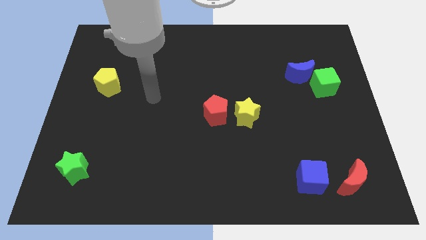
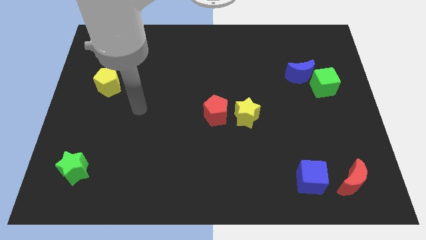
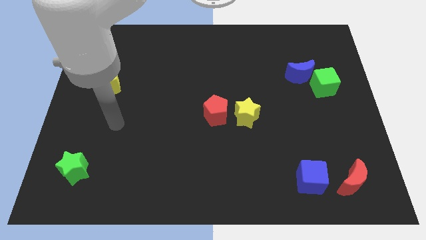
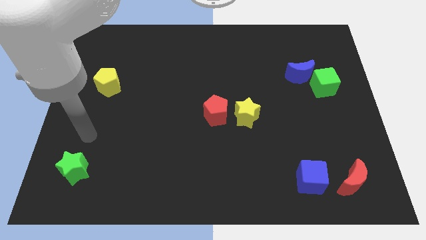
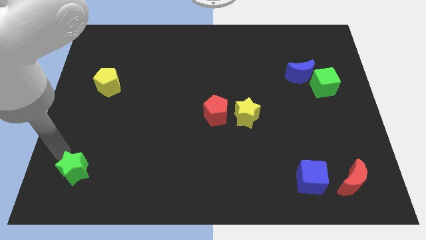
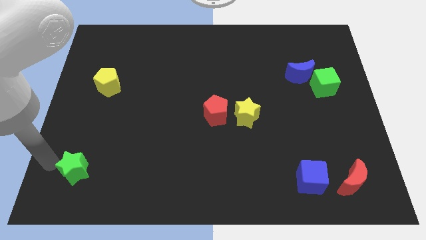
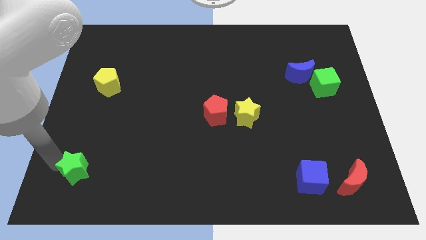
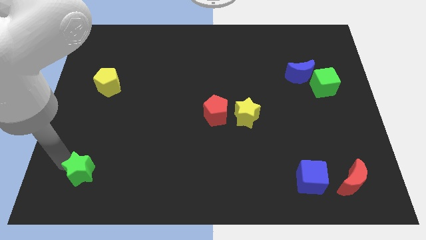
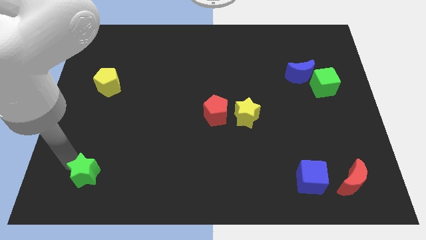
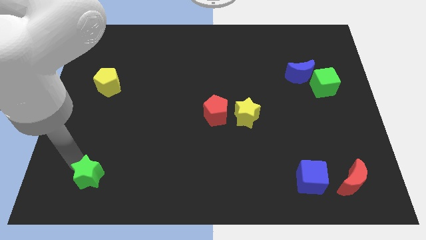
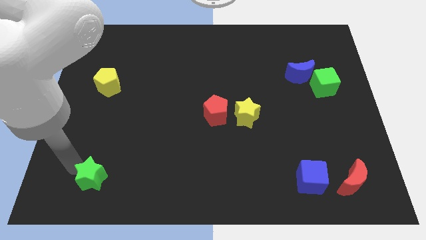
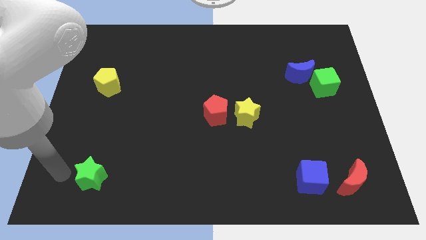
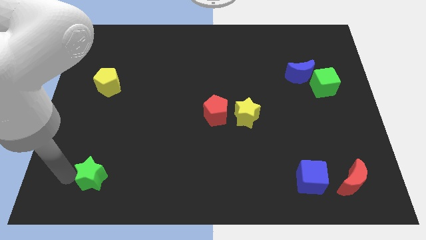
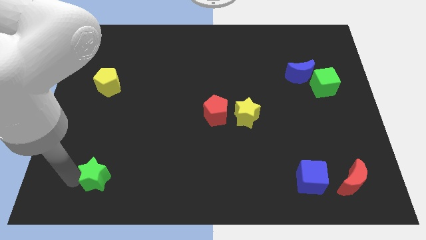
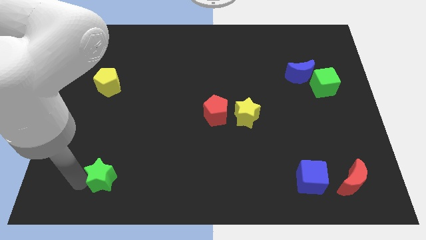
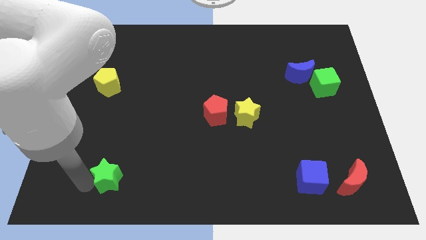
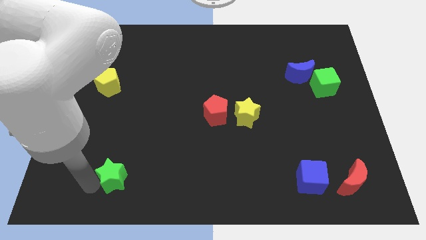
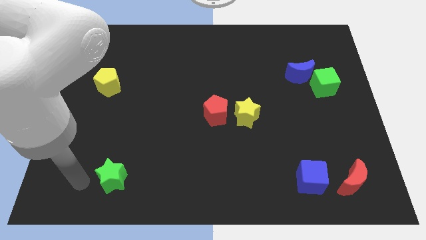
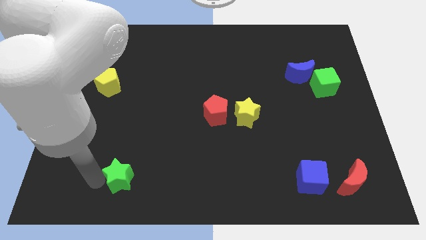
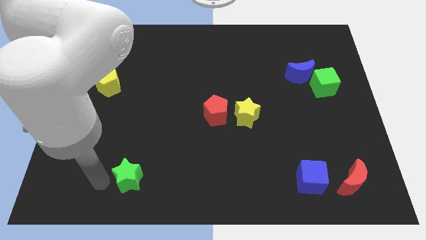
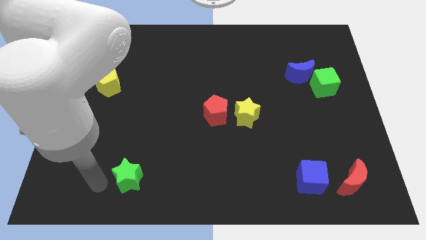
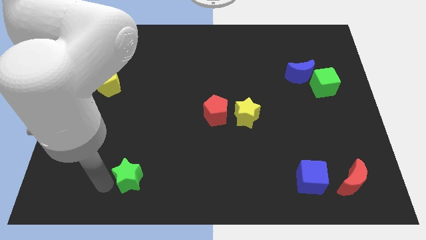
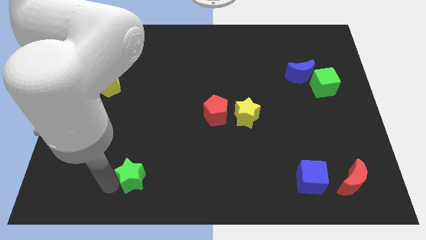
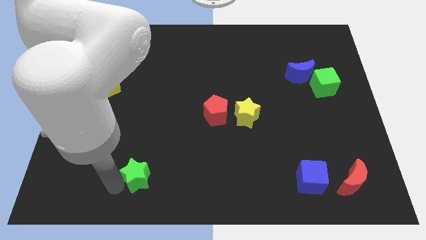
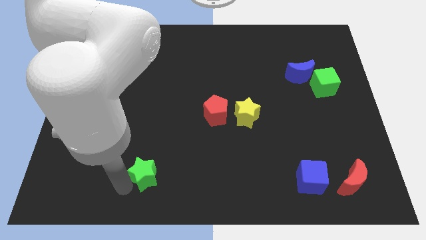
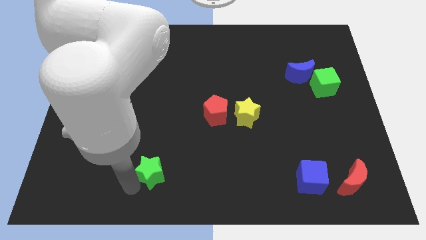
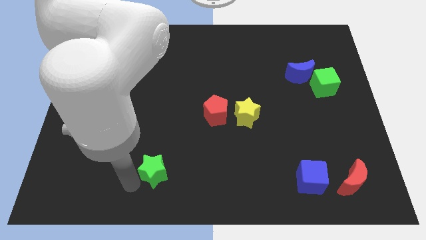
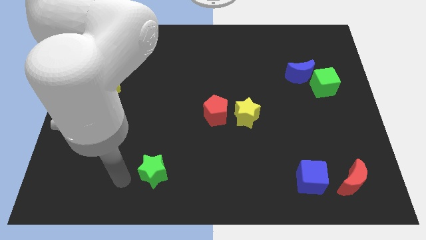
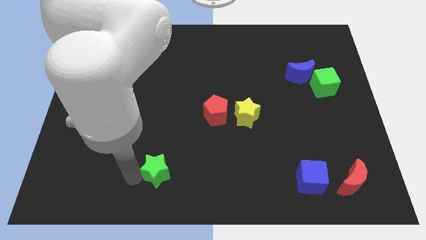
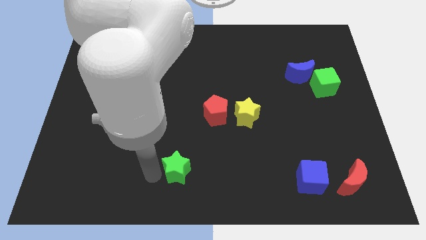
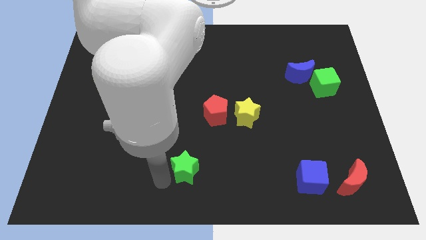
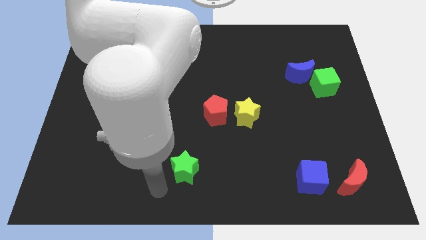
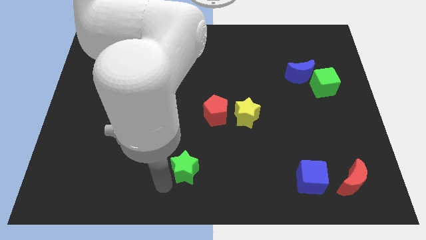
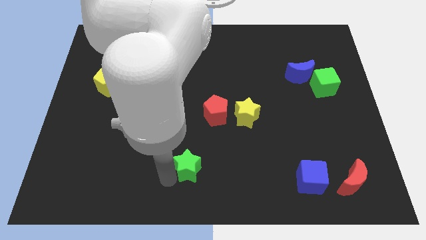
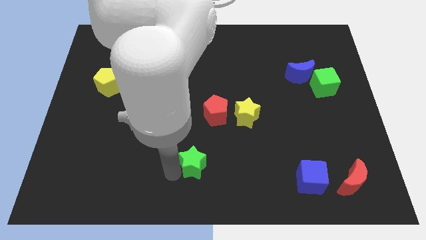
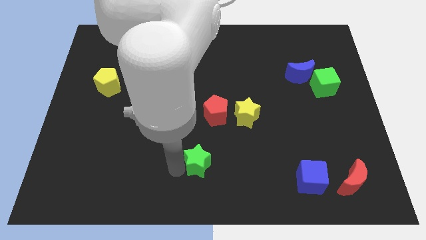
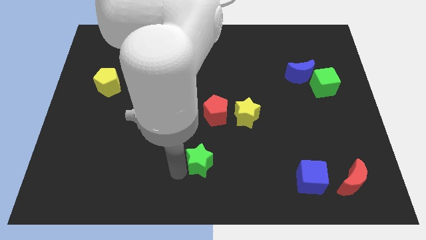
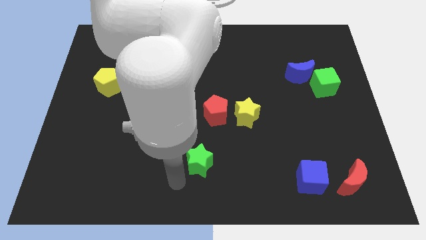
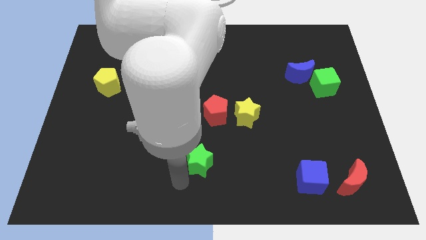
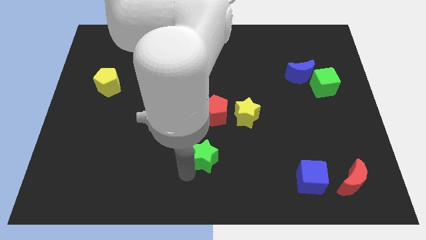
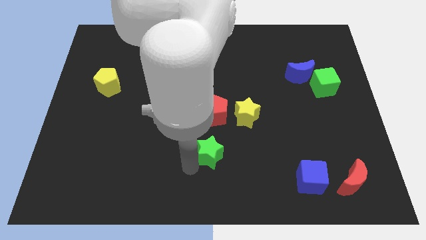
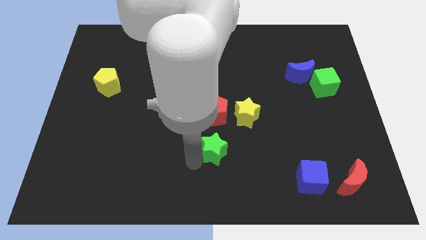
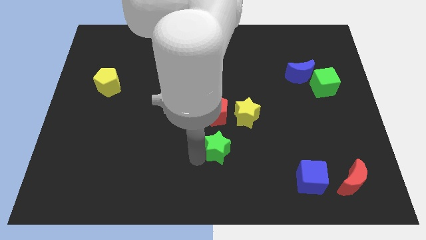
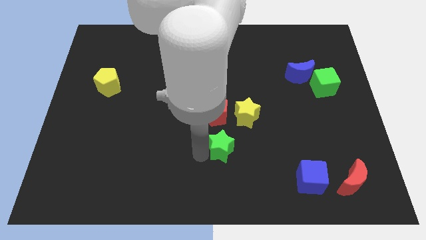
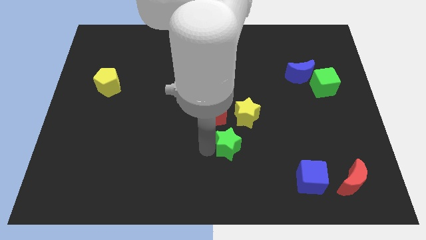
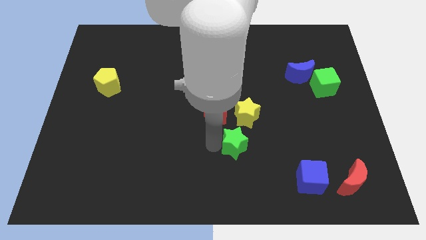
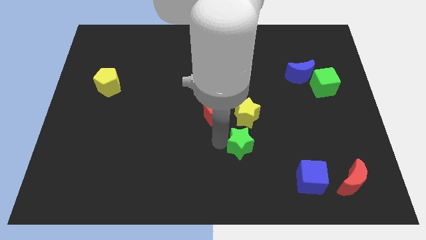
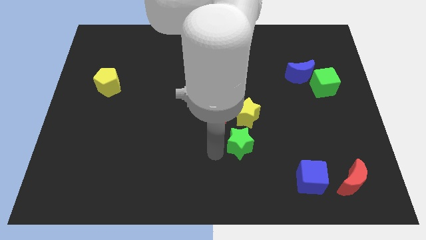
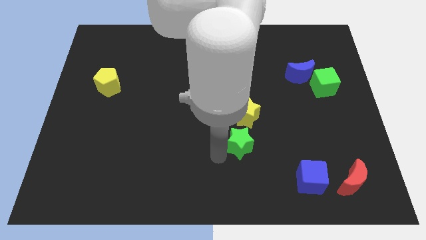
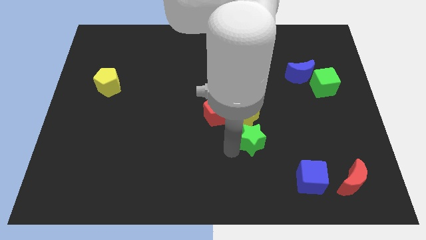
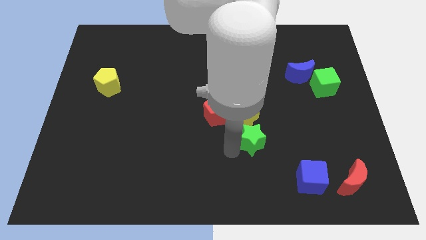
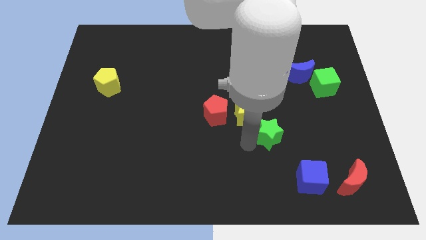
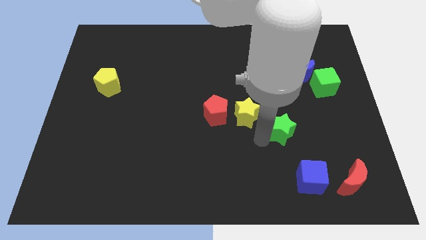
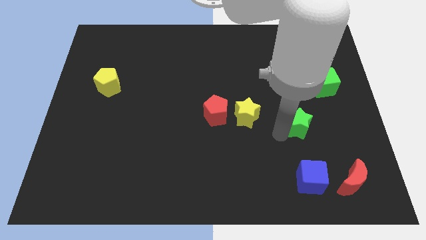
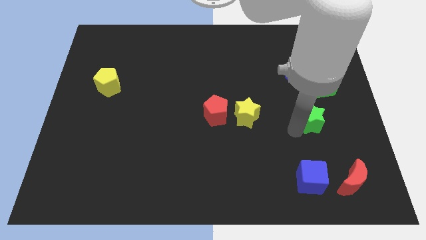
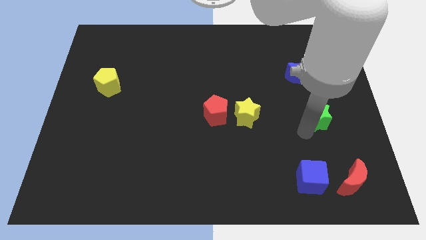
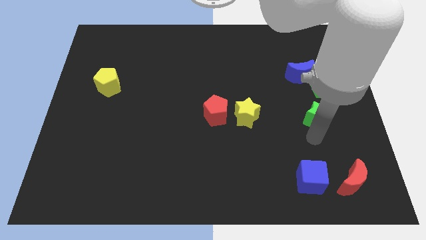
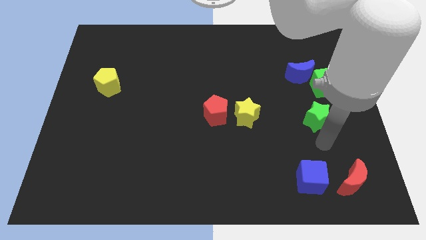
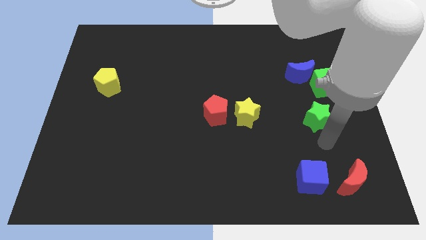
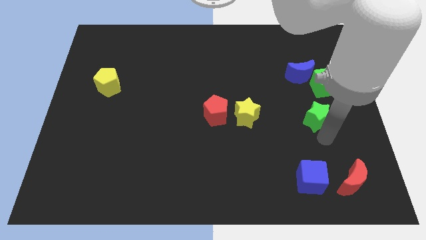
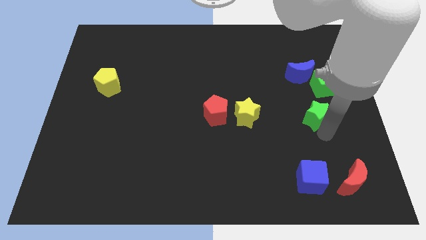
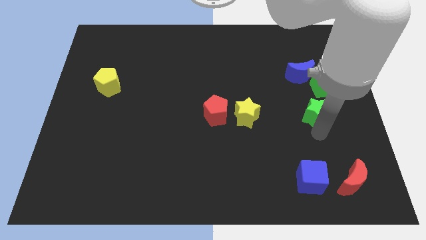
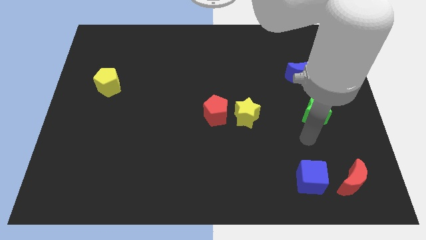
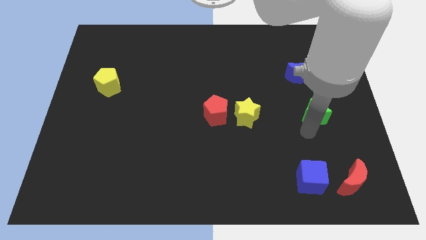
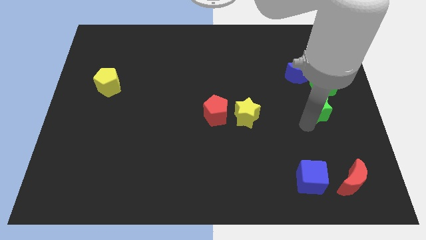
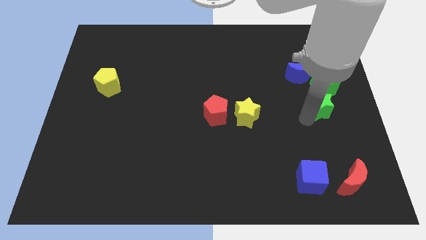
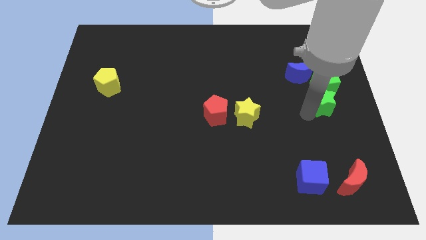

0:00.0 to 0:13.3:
slide the green star to the bottom right side of the blue moon
